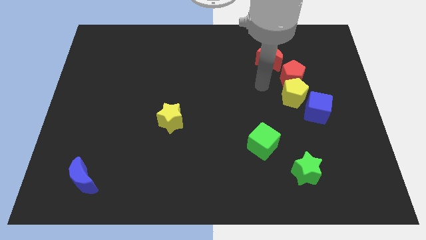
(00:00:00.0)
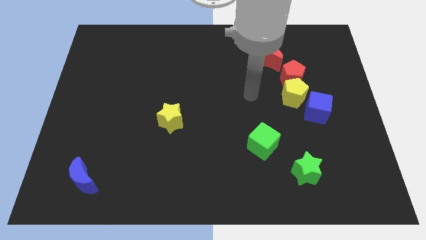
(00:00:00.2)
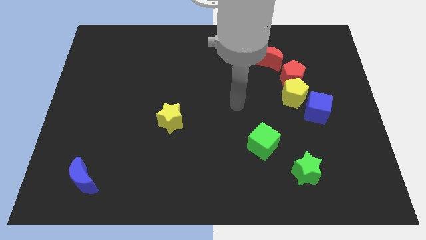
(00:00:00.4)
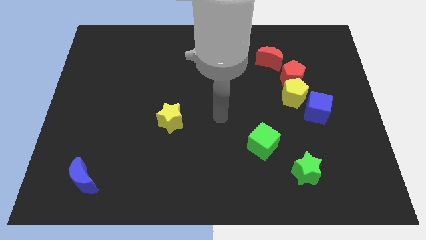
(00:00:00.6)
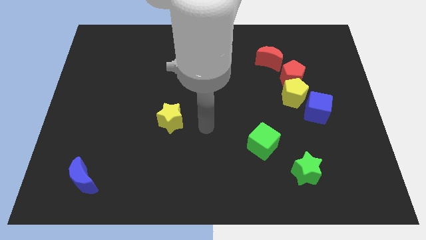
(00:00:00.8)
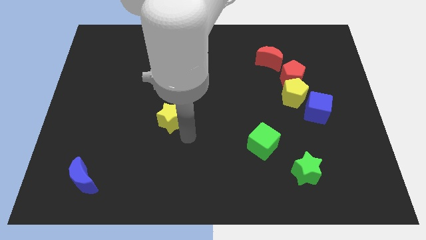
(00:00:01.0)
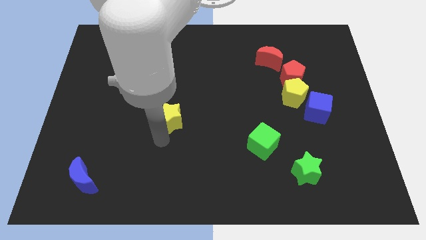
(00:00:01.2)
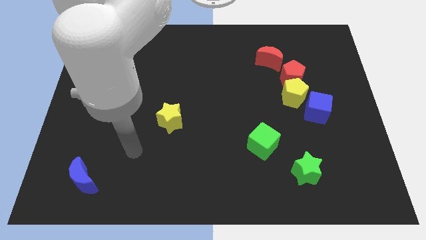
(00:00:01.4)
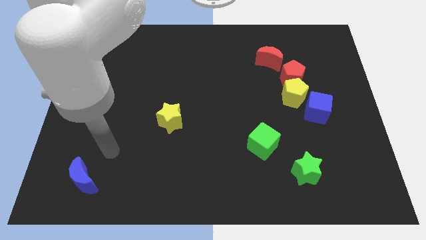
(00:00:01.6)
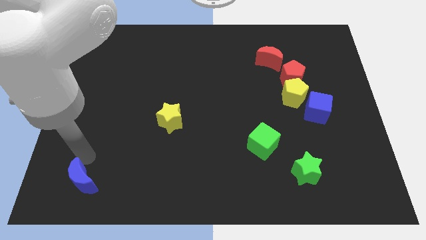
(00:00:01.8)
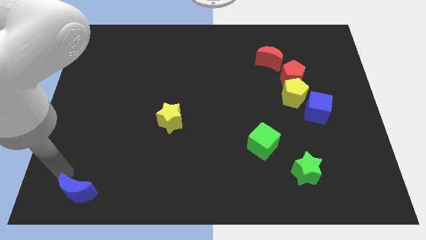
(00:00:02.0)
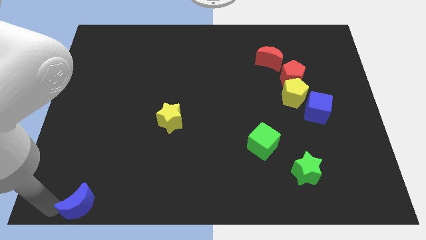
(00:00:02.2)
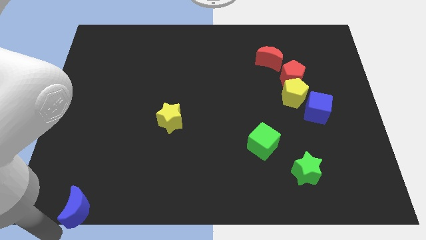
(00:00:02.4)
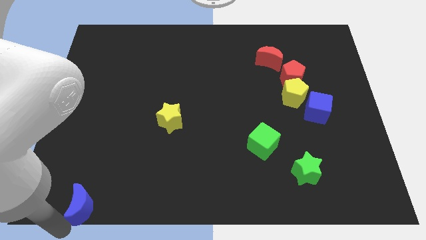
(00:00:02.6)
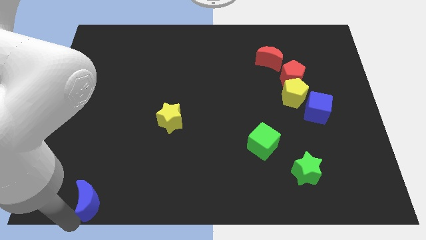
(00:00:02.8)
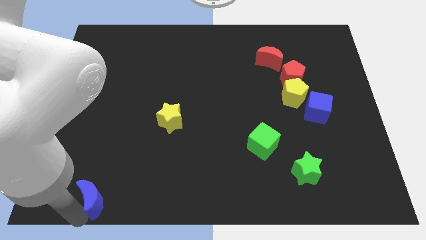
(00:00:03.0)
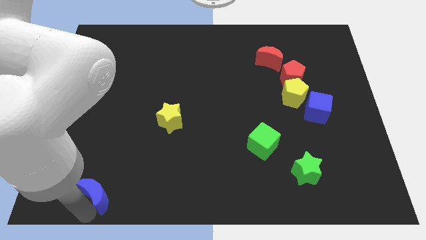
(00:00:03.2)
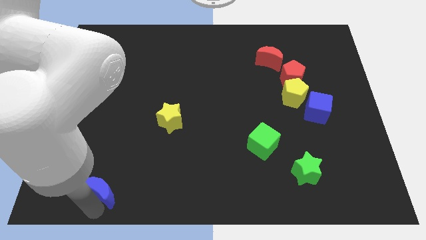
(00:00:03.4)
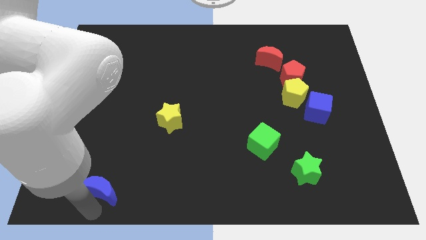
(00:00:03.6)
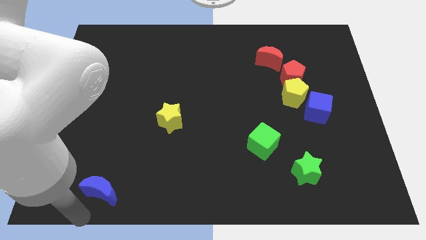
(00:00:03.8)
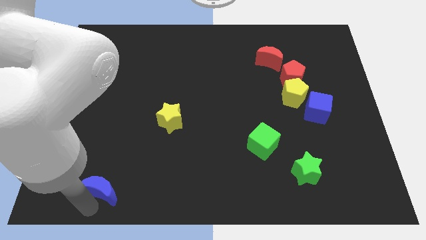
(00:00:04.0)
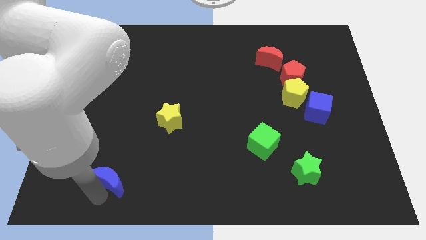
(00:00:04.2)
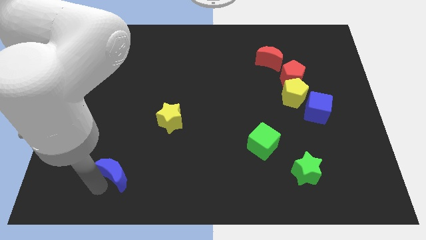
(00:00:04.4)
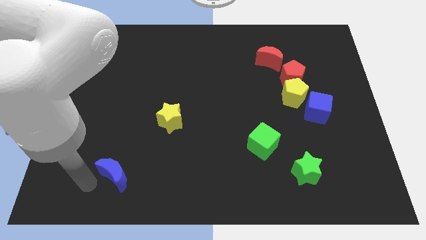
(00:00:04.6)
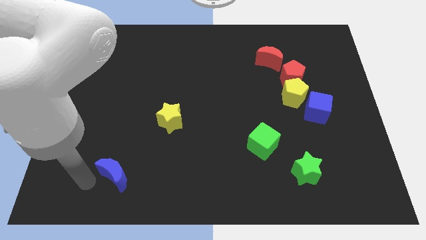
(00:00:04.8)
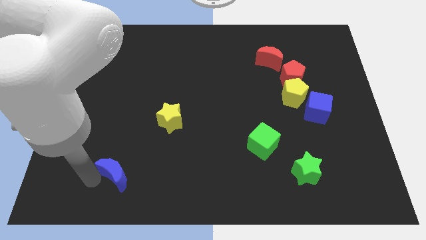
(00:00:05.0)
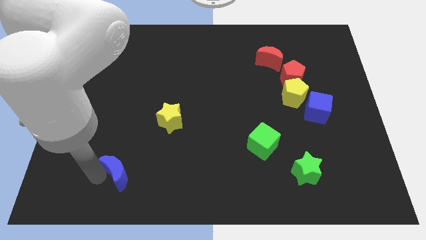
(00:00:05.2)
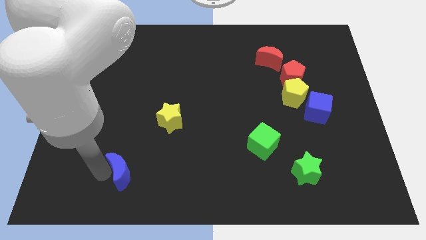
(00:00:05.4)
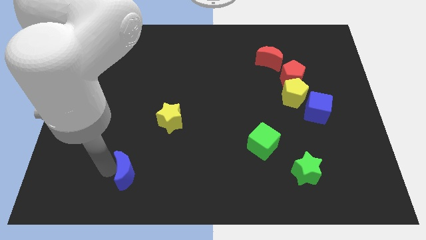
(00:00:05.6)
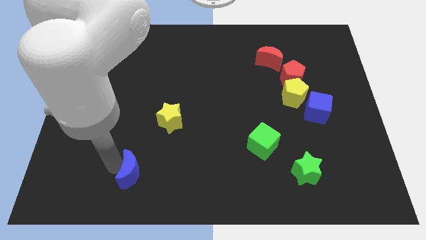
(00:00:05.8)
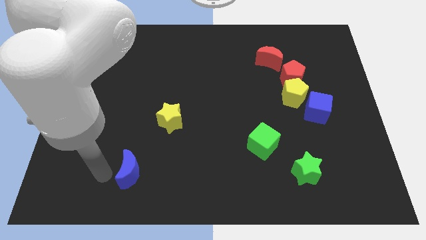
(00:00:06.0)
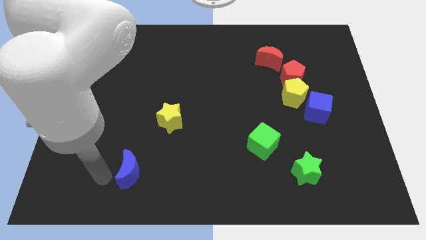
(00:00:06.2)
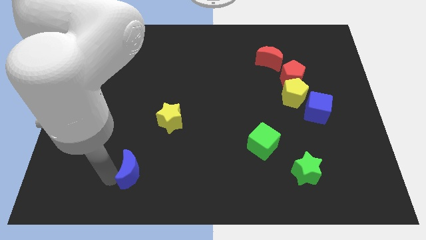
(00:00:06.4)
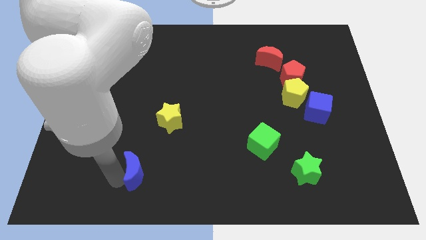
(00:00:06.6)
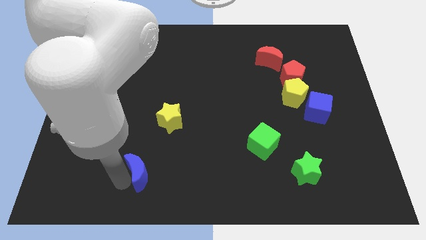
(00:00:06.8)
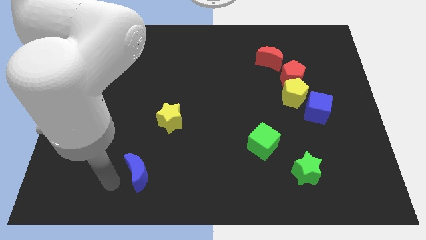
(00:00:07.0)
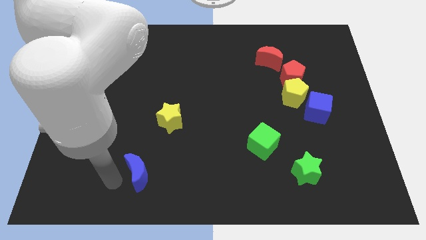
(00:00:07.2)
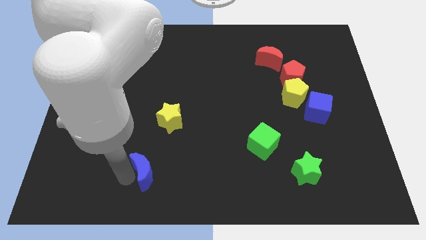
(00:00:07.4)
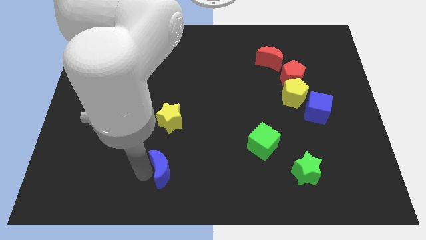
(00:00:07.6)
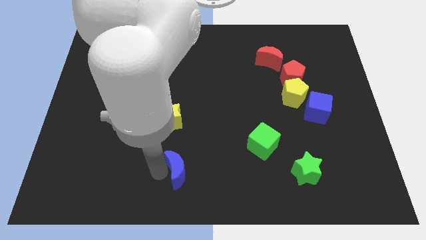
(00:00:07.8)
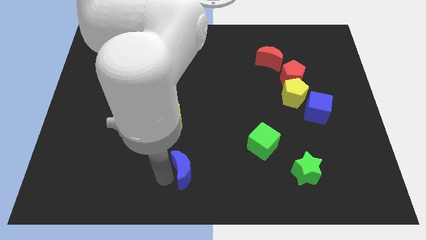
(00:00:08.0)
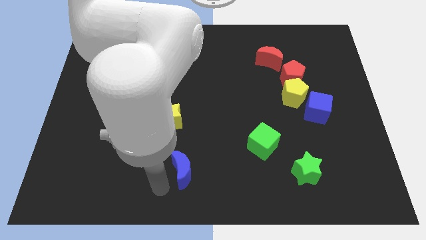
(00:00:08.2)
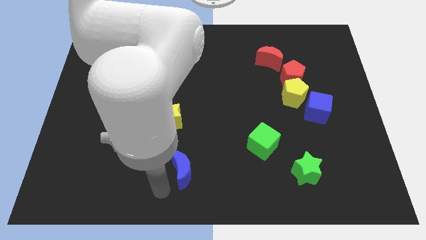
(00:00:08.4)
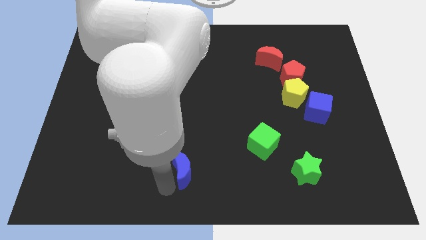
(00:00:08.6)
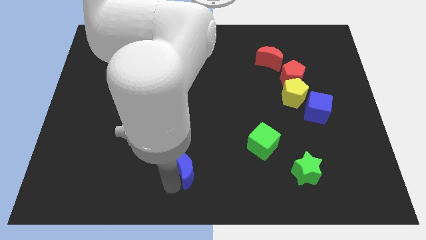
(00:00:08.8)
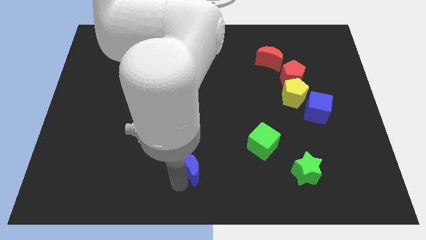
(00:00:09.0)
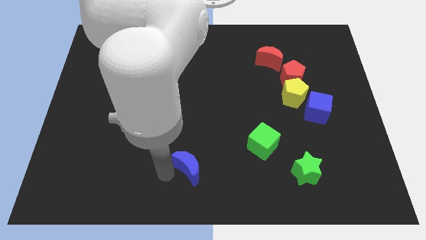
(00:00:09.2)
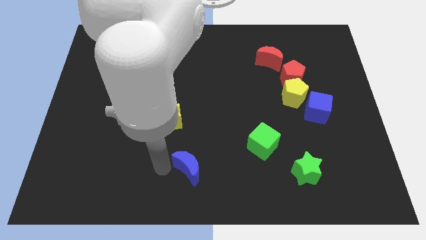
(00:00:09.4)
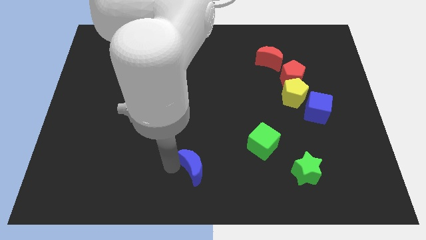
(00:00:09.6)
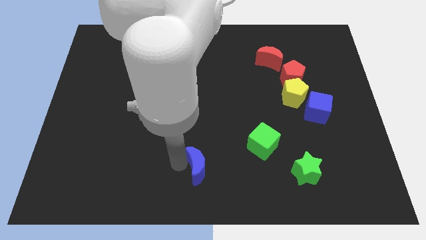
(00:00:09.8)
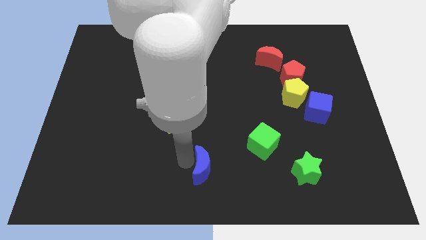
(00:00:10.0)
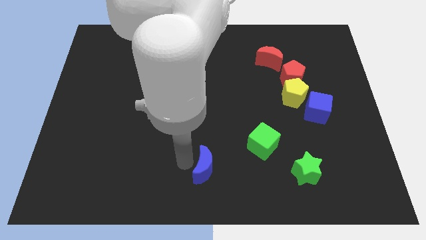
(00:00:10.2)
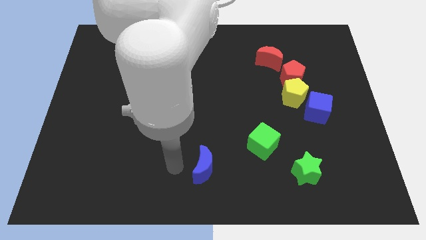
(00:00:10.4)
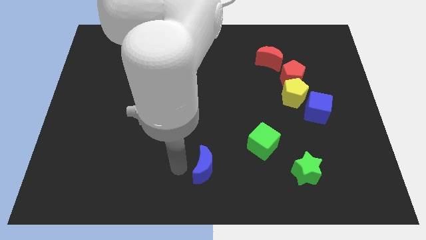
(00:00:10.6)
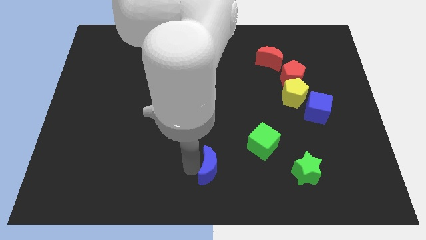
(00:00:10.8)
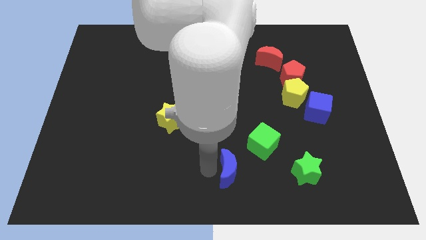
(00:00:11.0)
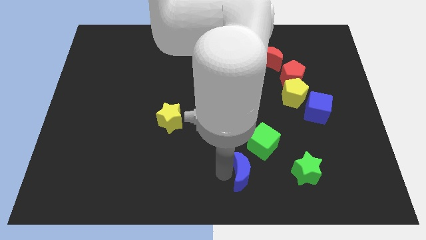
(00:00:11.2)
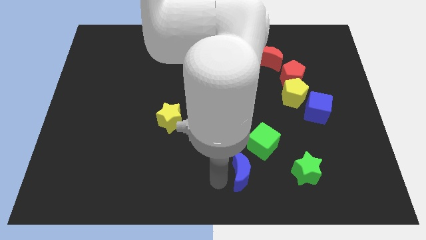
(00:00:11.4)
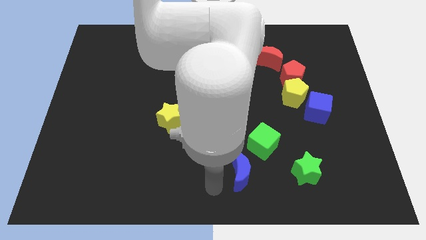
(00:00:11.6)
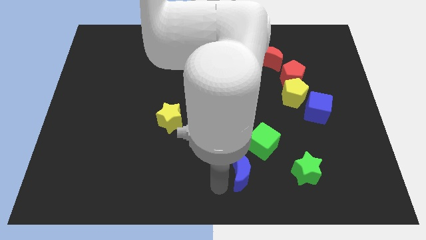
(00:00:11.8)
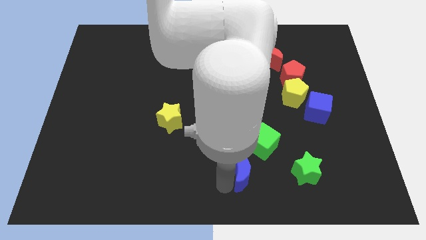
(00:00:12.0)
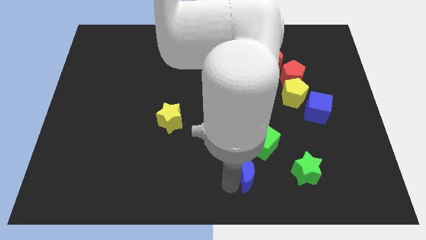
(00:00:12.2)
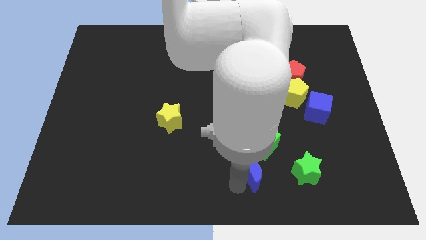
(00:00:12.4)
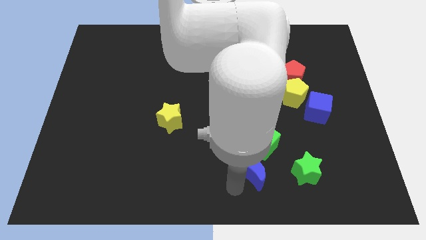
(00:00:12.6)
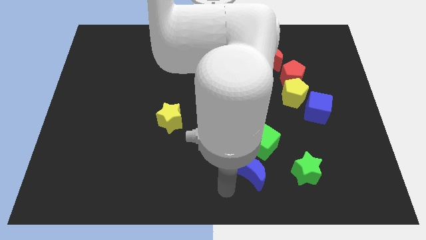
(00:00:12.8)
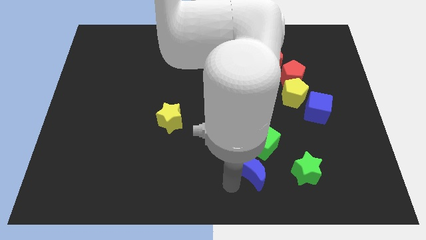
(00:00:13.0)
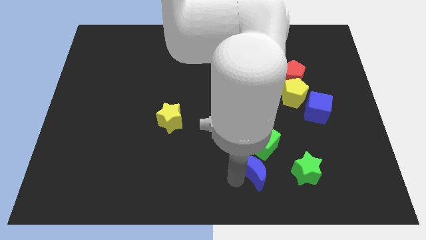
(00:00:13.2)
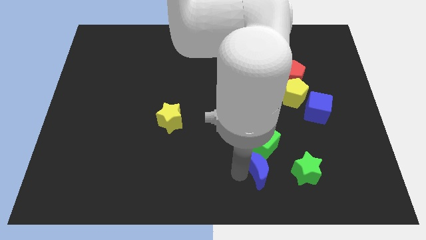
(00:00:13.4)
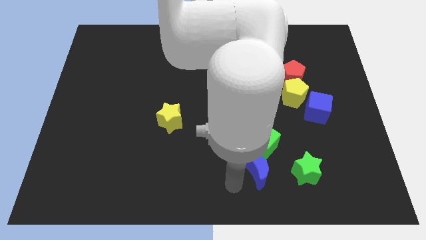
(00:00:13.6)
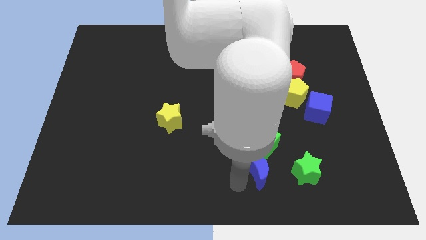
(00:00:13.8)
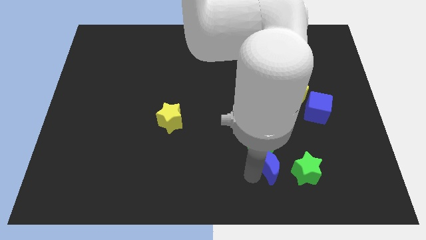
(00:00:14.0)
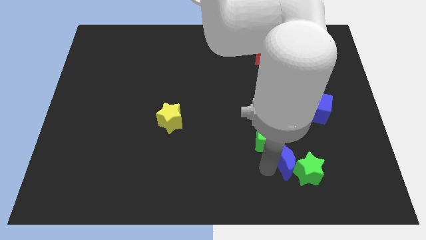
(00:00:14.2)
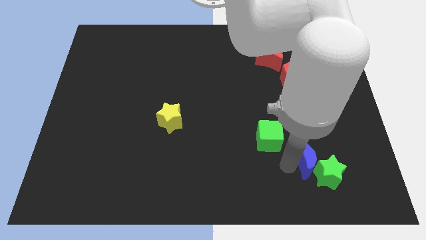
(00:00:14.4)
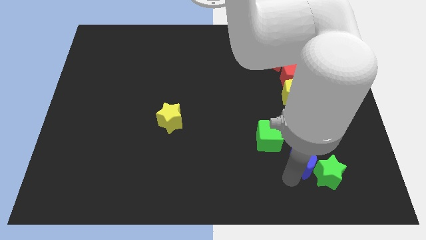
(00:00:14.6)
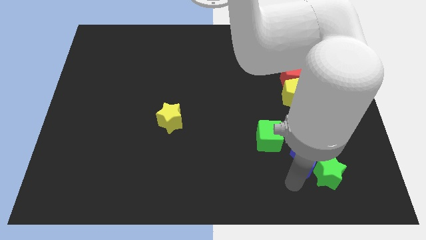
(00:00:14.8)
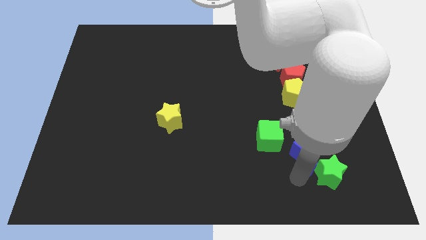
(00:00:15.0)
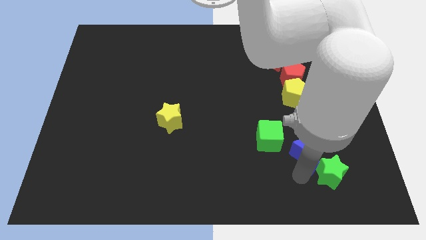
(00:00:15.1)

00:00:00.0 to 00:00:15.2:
push the blue moon to the right of the green cube
